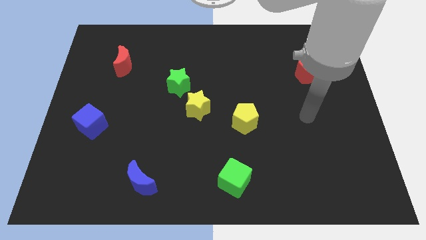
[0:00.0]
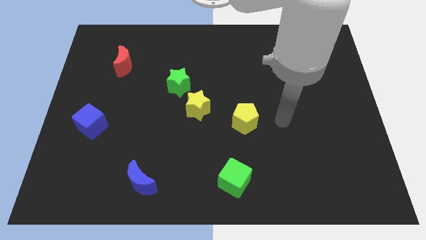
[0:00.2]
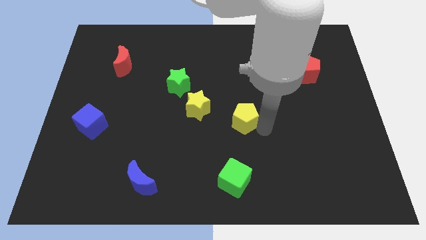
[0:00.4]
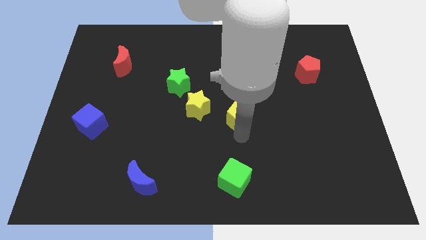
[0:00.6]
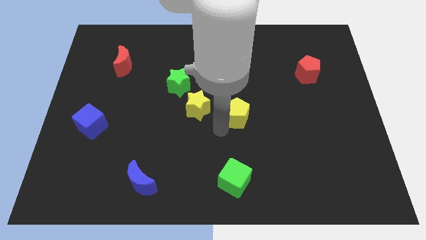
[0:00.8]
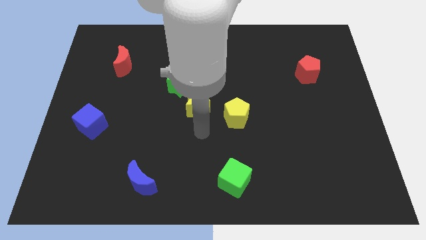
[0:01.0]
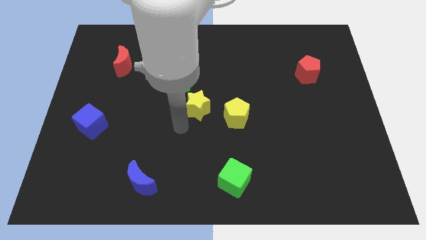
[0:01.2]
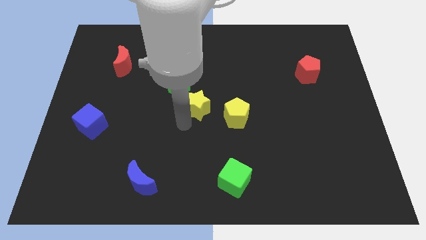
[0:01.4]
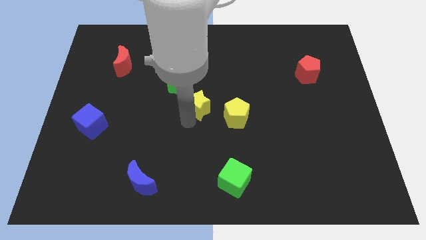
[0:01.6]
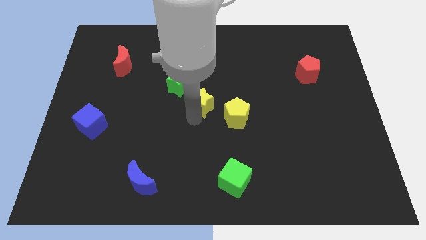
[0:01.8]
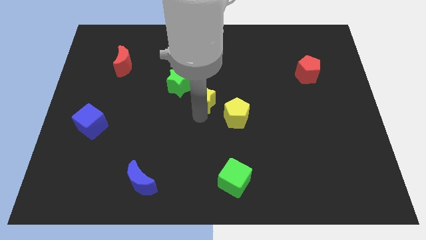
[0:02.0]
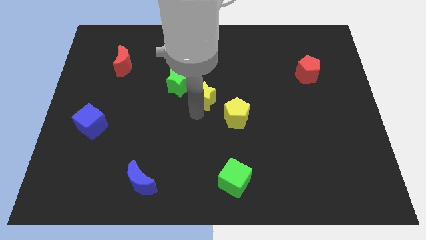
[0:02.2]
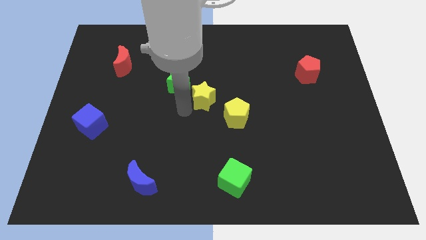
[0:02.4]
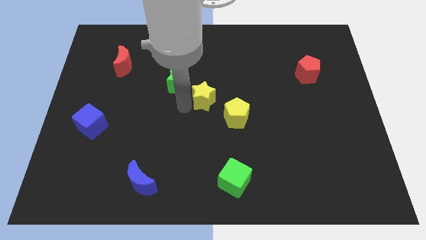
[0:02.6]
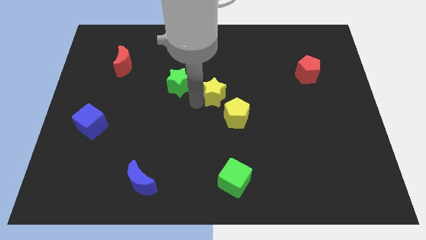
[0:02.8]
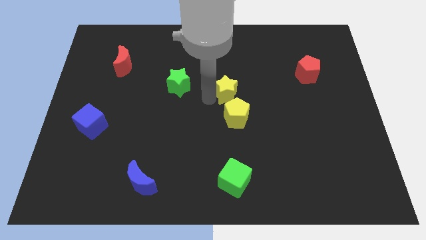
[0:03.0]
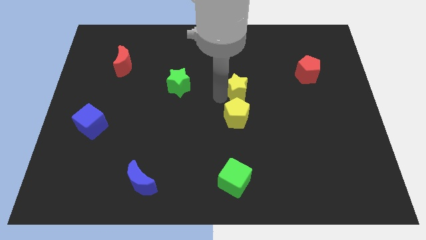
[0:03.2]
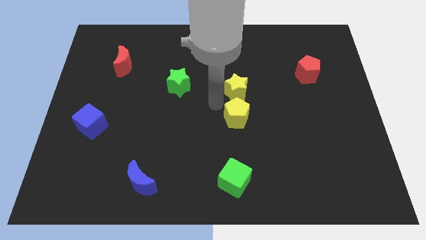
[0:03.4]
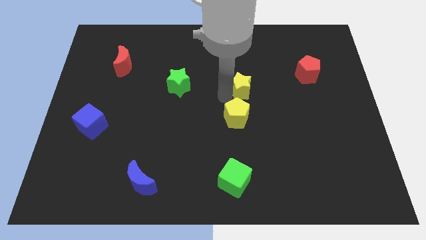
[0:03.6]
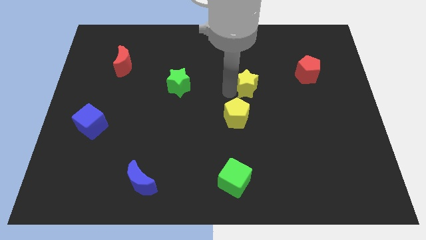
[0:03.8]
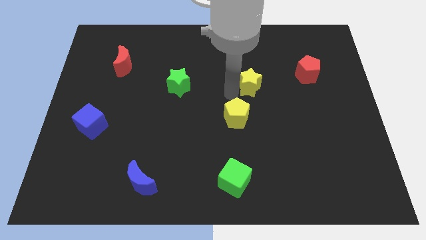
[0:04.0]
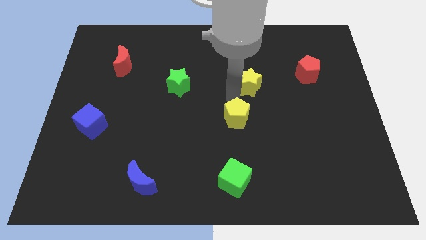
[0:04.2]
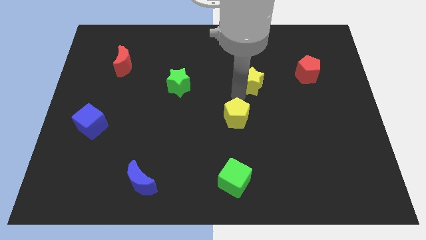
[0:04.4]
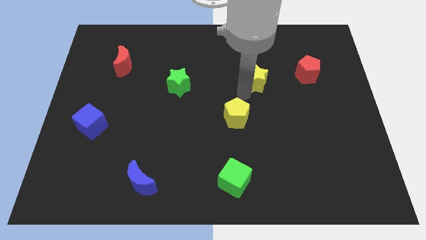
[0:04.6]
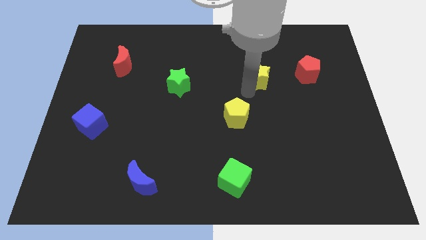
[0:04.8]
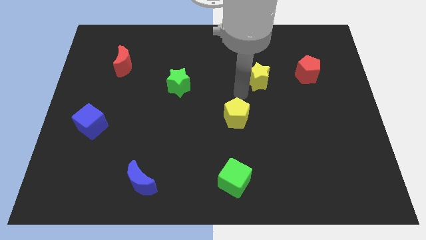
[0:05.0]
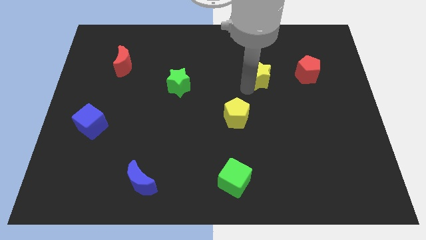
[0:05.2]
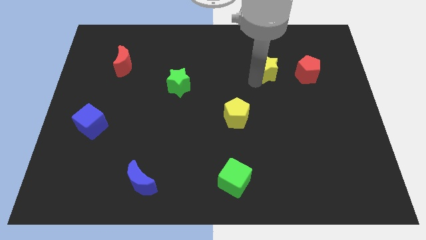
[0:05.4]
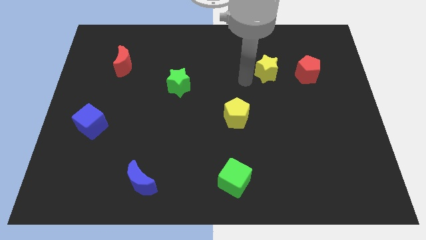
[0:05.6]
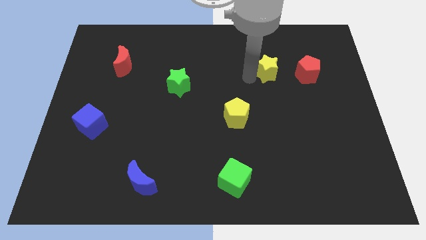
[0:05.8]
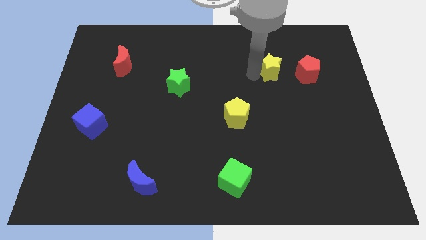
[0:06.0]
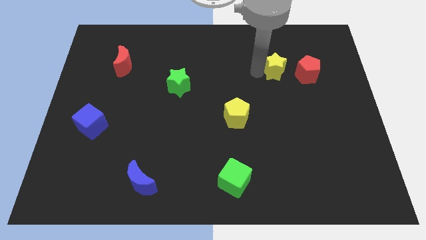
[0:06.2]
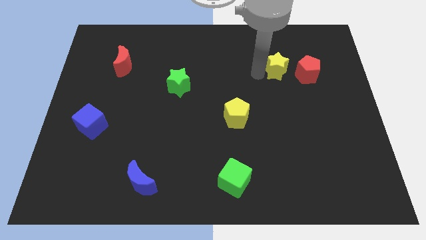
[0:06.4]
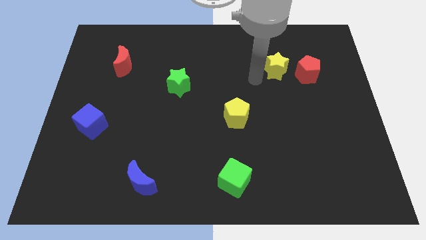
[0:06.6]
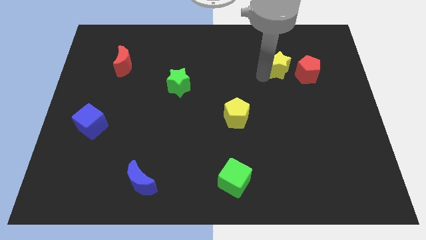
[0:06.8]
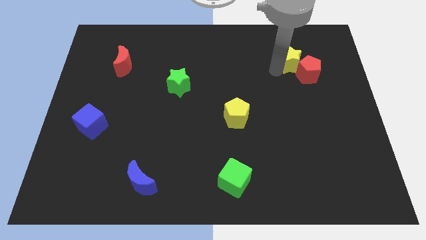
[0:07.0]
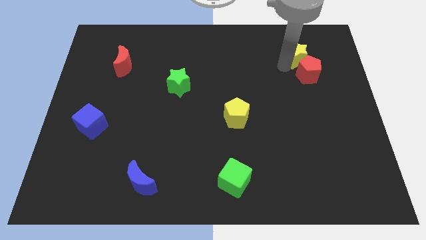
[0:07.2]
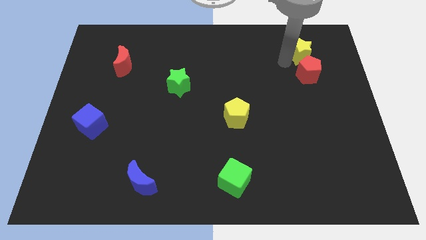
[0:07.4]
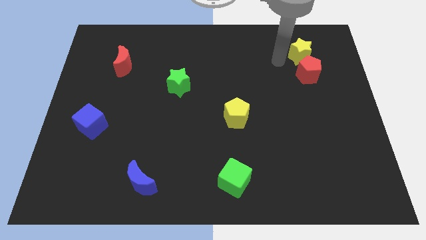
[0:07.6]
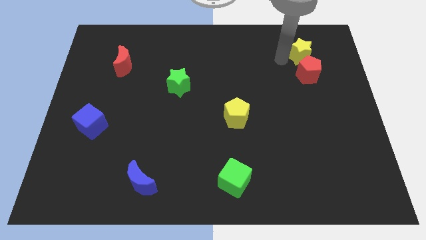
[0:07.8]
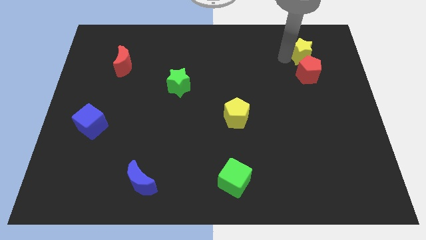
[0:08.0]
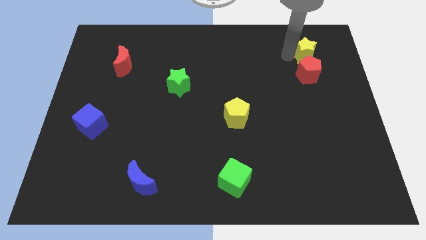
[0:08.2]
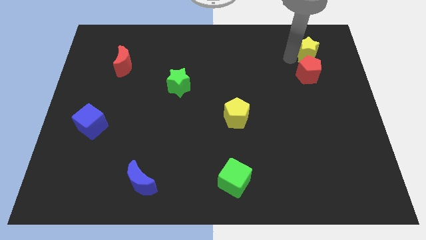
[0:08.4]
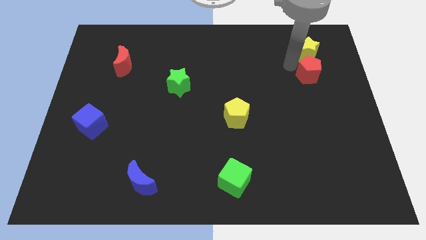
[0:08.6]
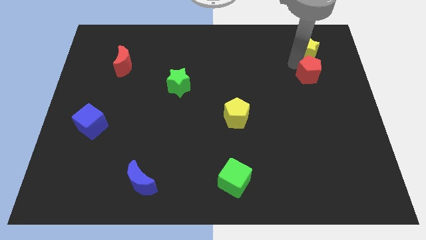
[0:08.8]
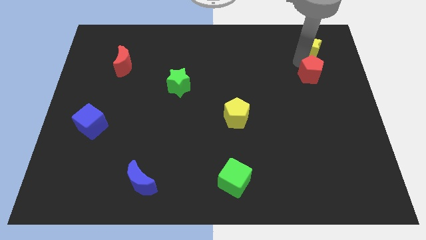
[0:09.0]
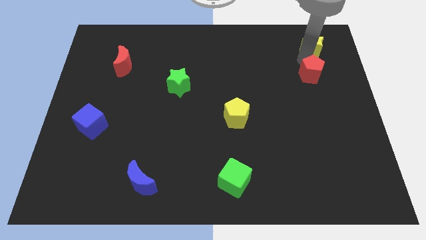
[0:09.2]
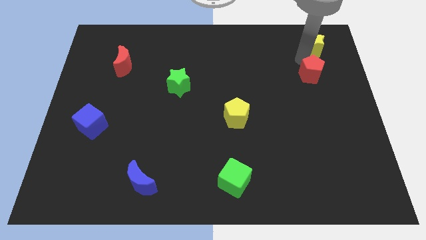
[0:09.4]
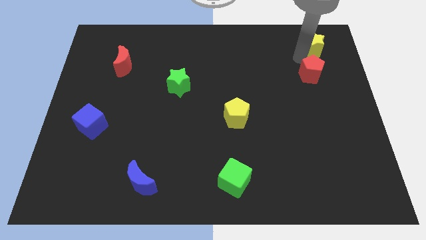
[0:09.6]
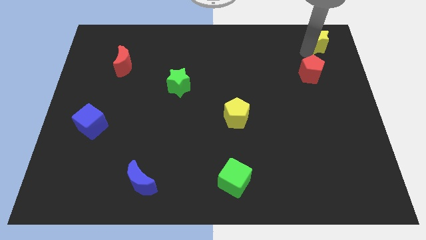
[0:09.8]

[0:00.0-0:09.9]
slide the yellow star to the top right corner

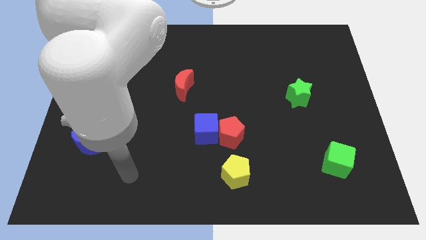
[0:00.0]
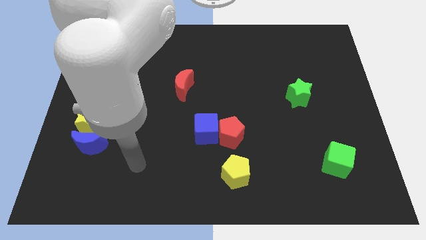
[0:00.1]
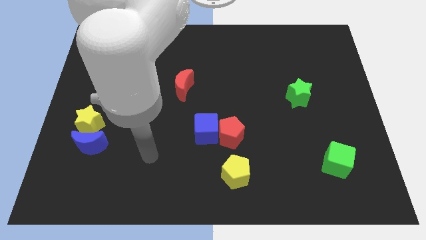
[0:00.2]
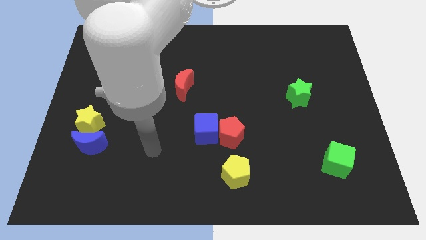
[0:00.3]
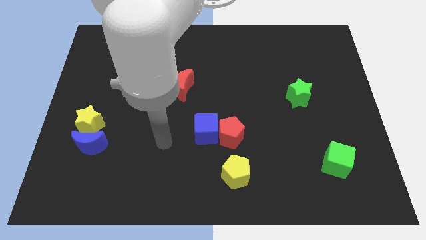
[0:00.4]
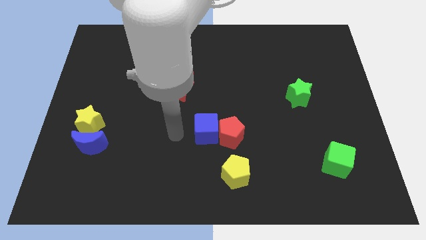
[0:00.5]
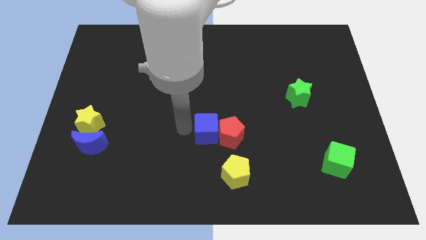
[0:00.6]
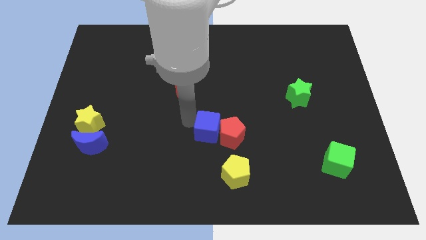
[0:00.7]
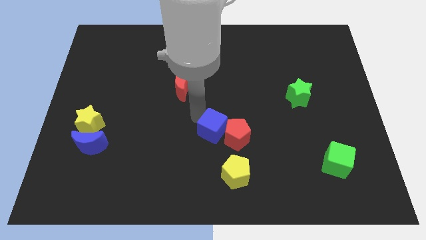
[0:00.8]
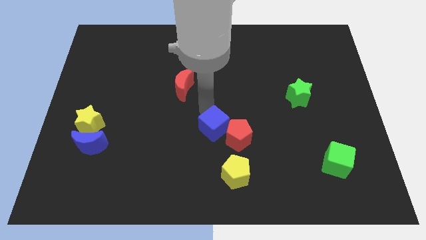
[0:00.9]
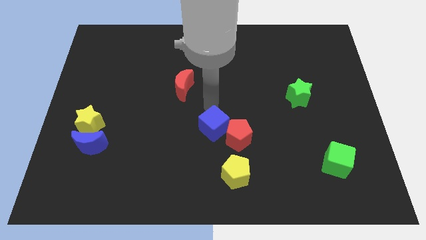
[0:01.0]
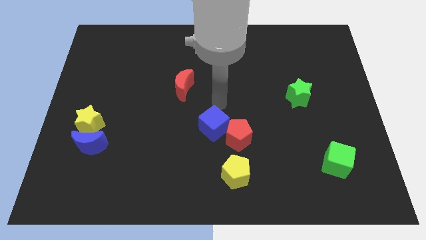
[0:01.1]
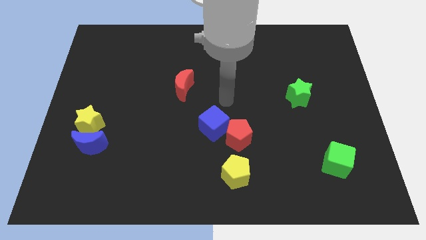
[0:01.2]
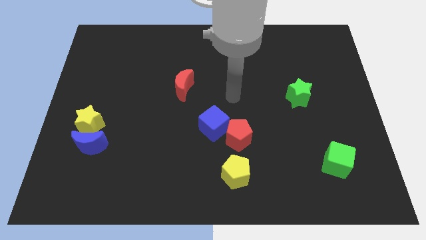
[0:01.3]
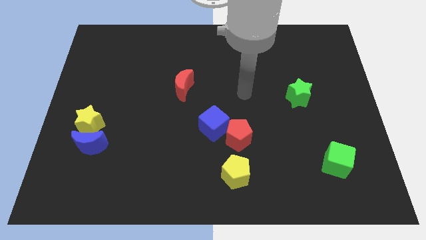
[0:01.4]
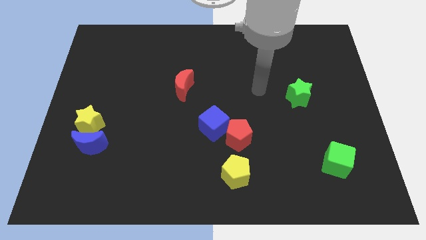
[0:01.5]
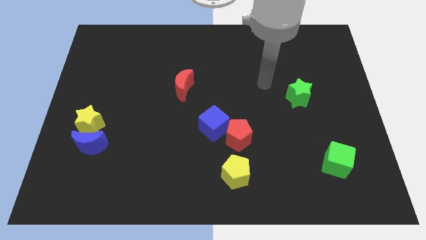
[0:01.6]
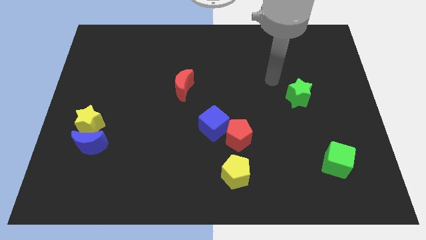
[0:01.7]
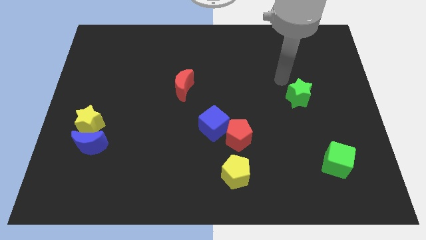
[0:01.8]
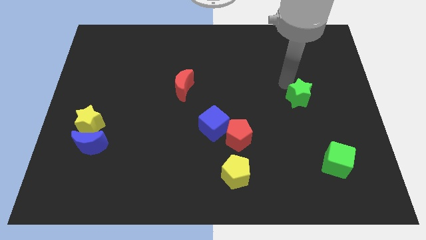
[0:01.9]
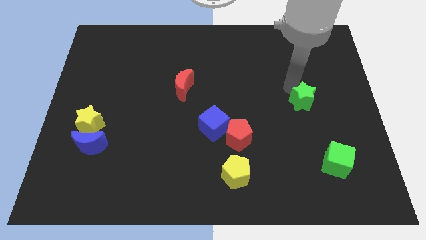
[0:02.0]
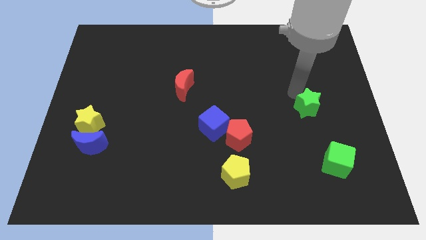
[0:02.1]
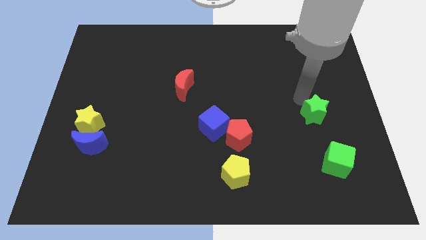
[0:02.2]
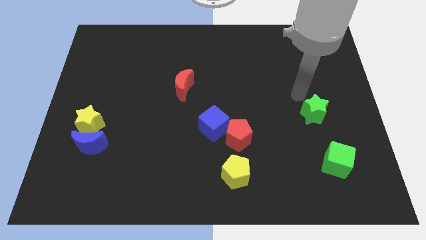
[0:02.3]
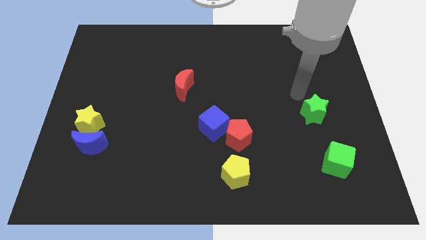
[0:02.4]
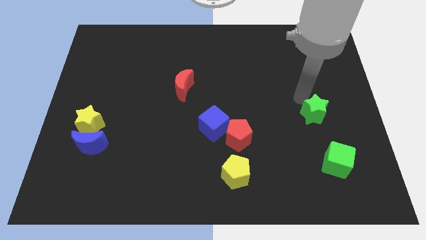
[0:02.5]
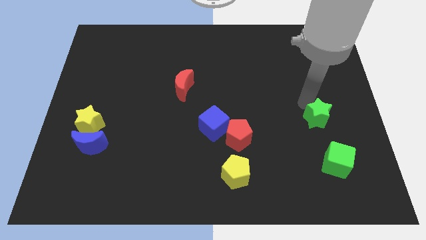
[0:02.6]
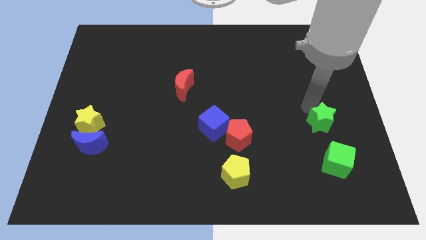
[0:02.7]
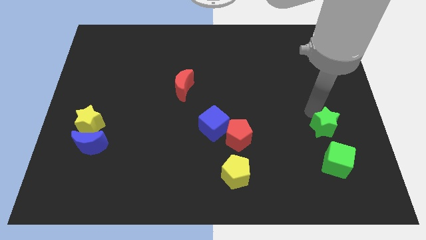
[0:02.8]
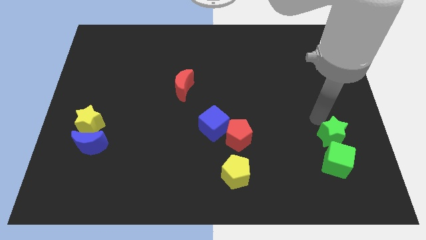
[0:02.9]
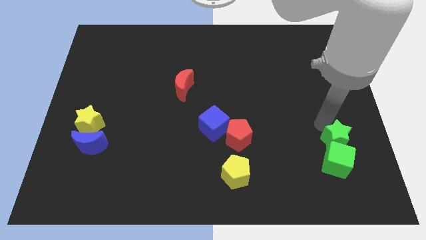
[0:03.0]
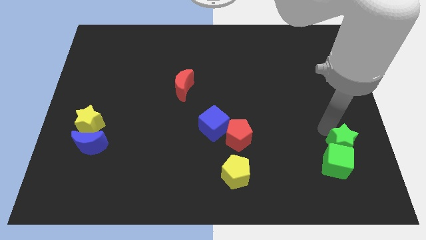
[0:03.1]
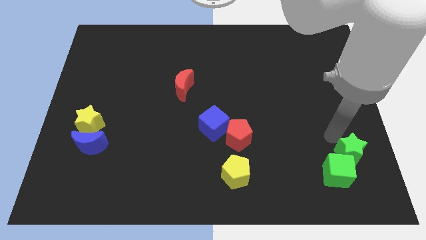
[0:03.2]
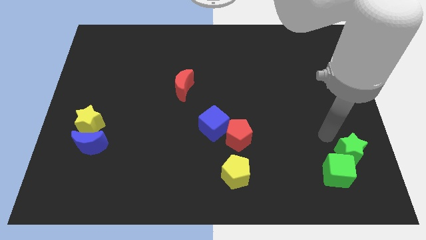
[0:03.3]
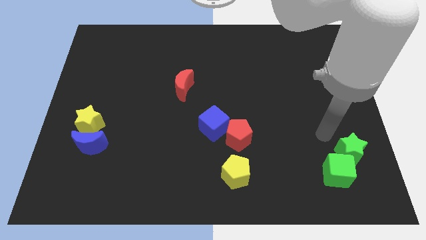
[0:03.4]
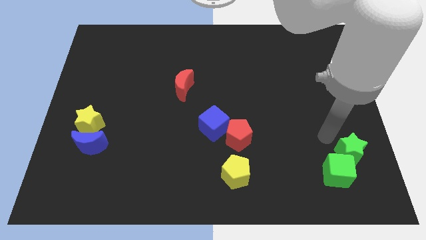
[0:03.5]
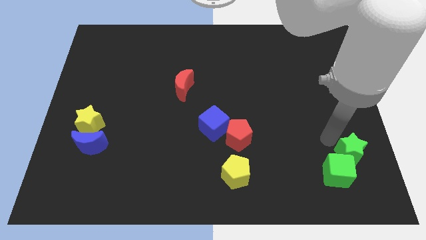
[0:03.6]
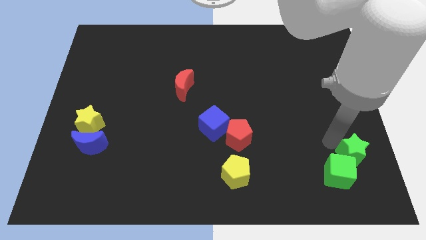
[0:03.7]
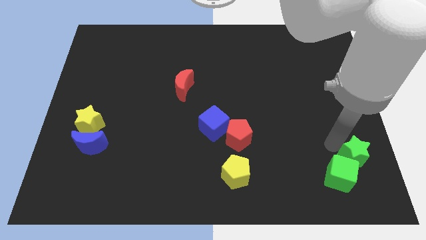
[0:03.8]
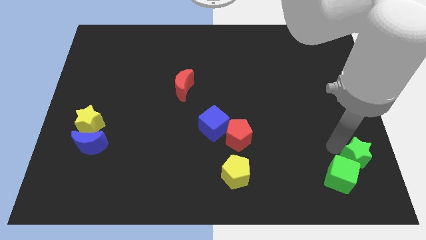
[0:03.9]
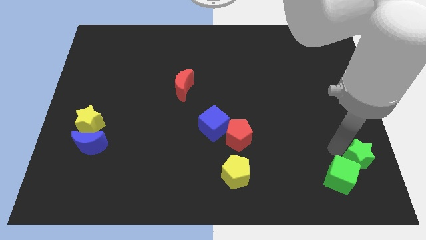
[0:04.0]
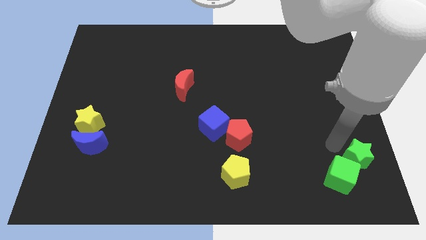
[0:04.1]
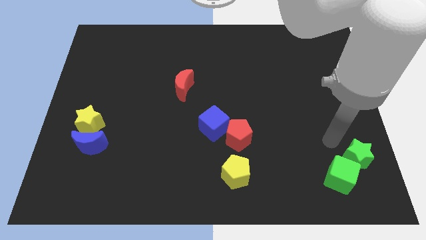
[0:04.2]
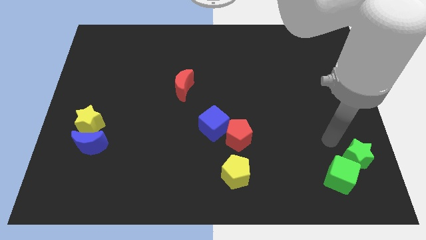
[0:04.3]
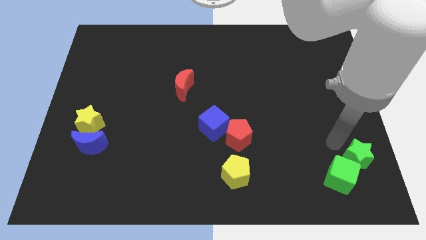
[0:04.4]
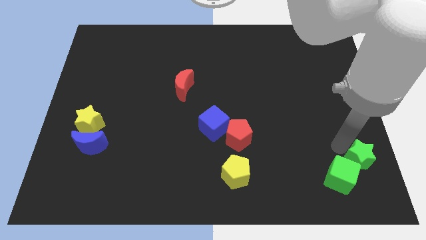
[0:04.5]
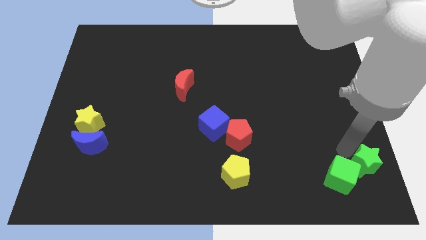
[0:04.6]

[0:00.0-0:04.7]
push the green star to the bottom right corner
